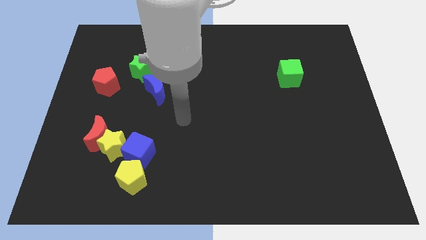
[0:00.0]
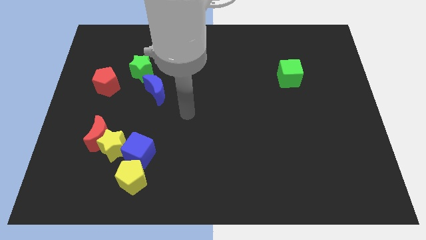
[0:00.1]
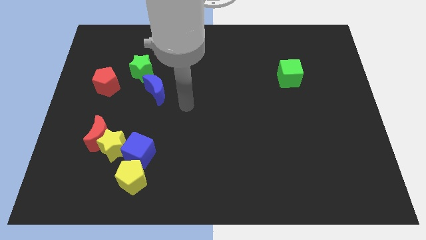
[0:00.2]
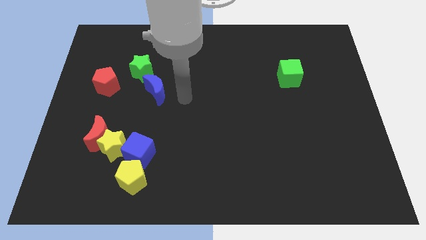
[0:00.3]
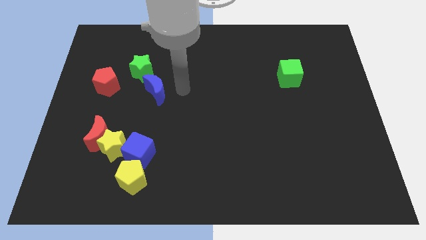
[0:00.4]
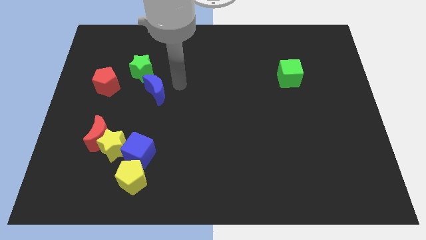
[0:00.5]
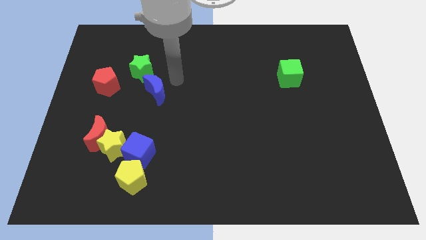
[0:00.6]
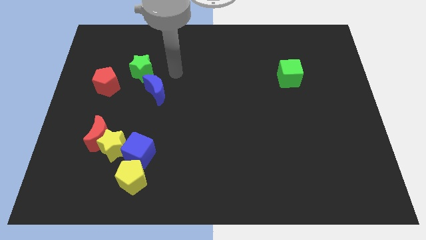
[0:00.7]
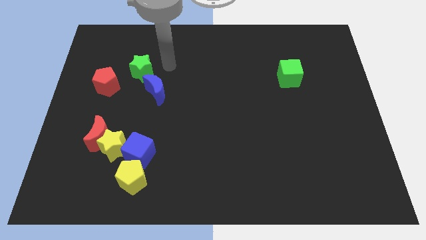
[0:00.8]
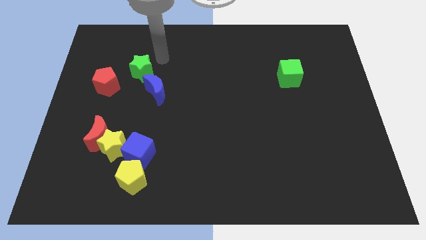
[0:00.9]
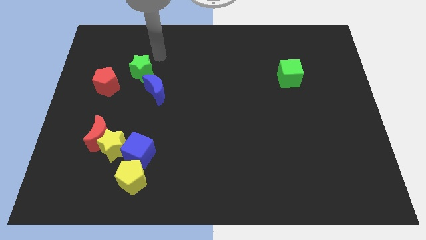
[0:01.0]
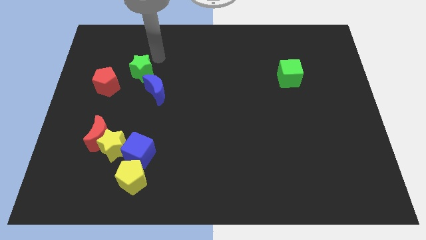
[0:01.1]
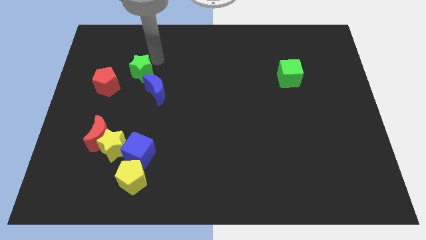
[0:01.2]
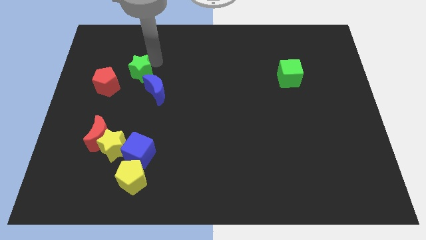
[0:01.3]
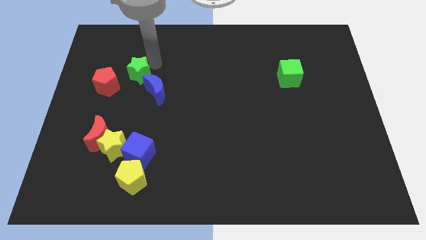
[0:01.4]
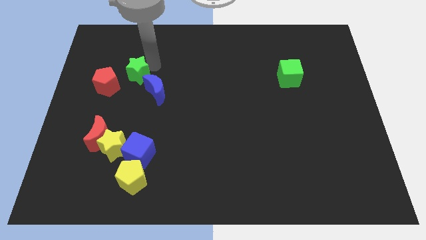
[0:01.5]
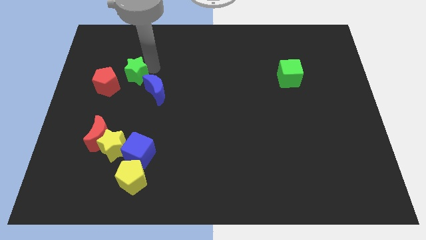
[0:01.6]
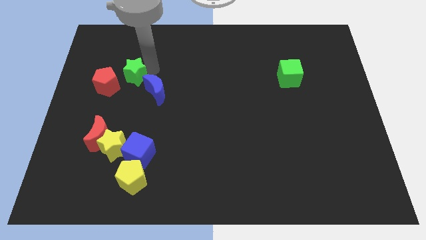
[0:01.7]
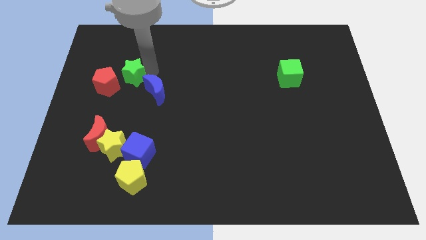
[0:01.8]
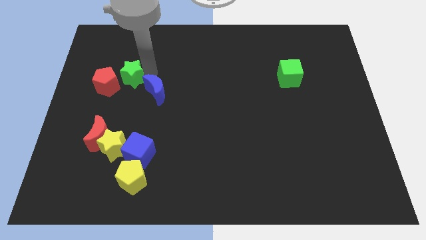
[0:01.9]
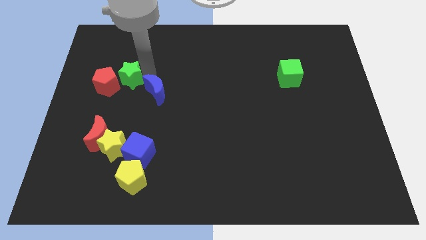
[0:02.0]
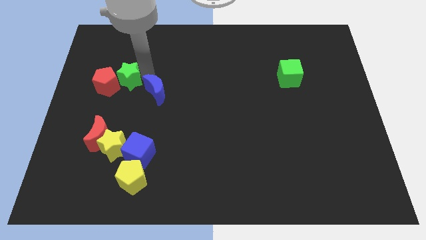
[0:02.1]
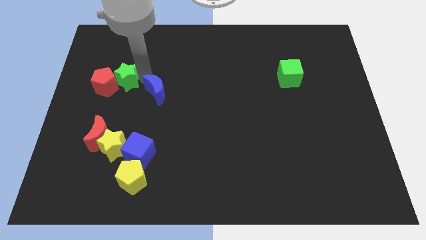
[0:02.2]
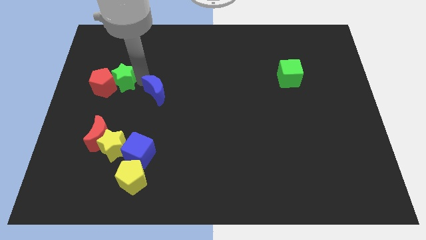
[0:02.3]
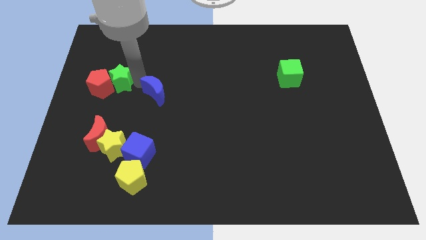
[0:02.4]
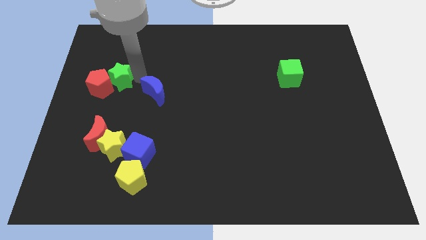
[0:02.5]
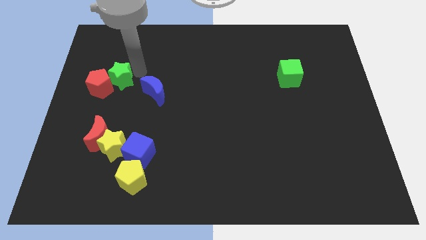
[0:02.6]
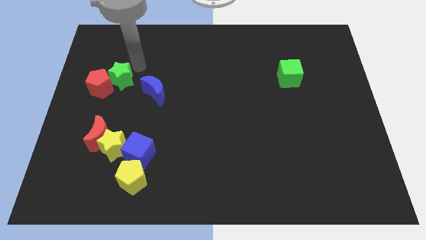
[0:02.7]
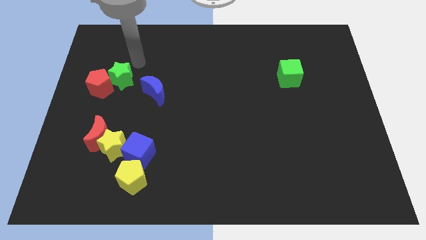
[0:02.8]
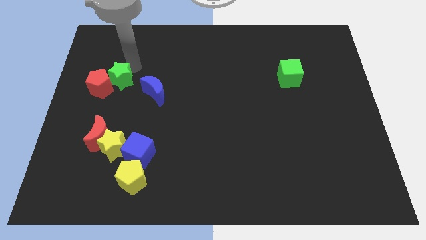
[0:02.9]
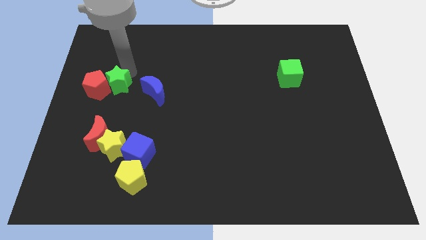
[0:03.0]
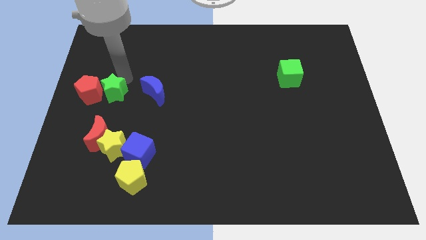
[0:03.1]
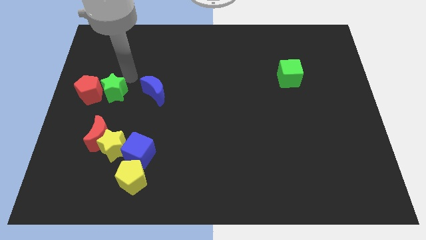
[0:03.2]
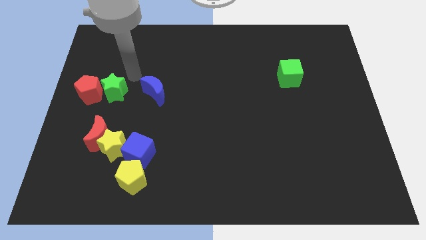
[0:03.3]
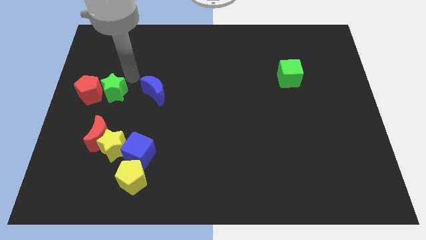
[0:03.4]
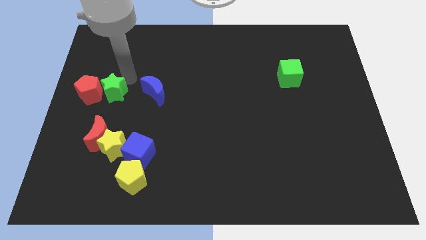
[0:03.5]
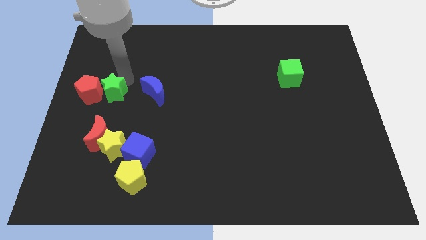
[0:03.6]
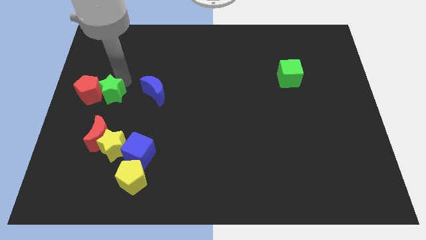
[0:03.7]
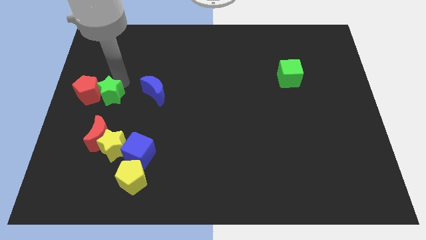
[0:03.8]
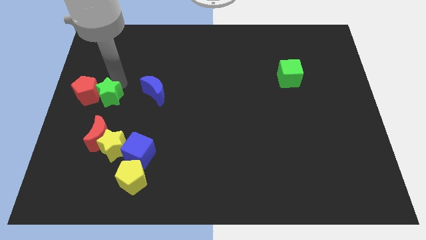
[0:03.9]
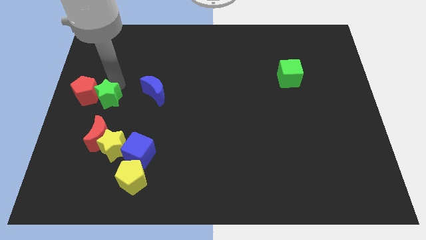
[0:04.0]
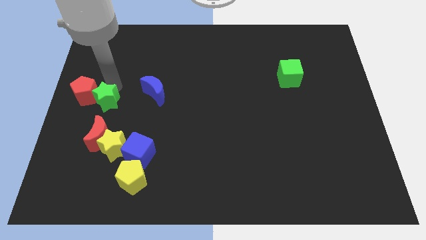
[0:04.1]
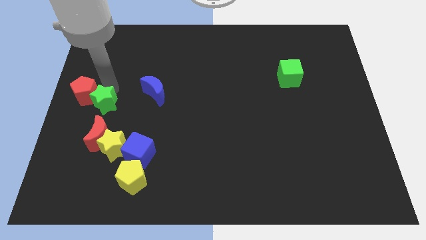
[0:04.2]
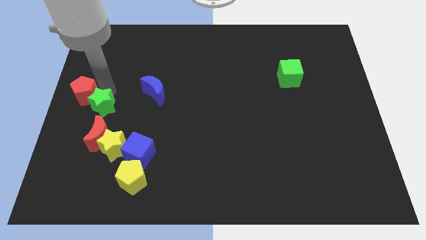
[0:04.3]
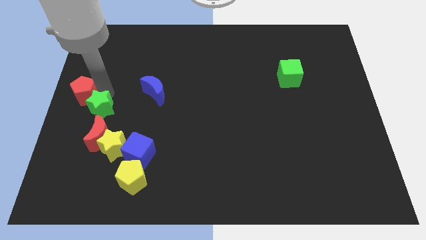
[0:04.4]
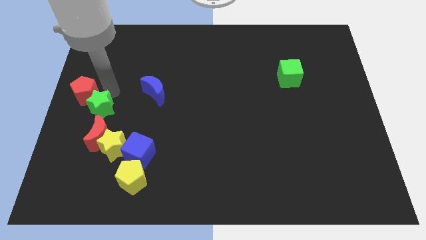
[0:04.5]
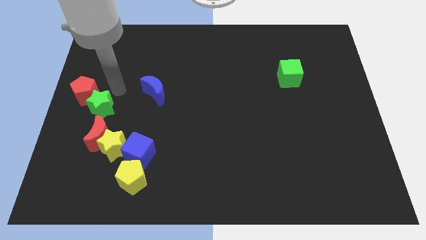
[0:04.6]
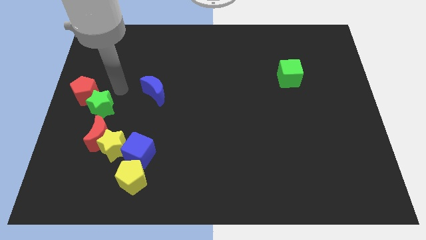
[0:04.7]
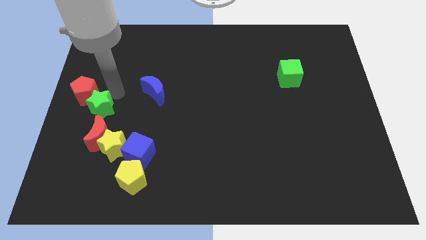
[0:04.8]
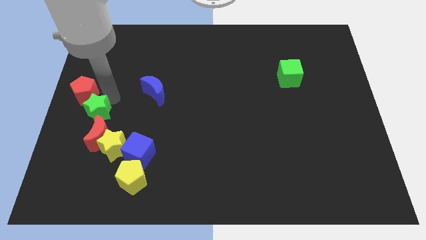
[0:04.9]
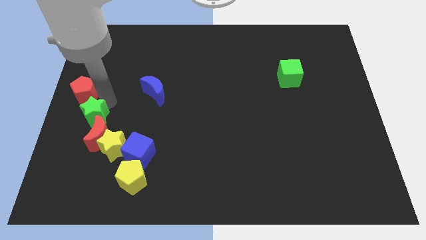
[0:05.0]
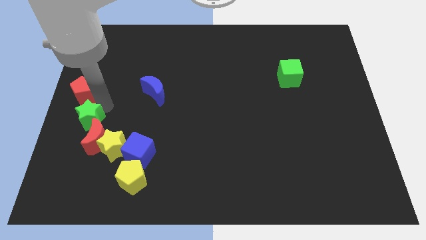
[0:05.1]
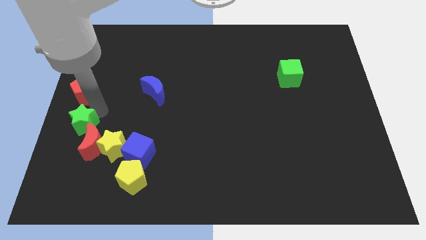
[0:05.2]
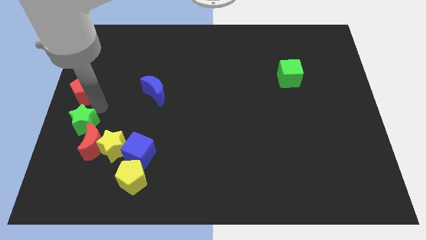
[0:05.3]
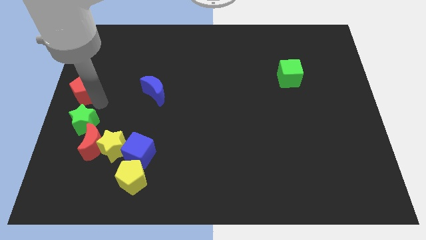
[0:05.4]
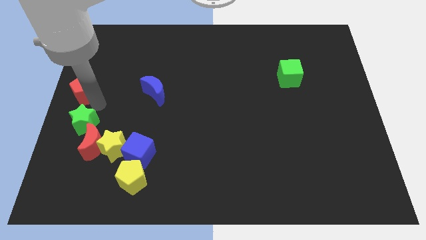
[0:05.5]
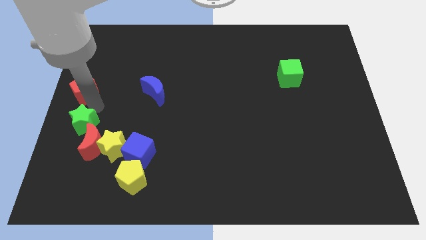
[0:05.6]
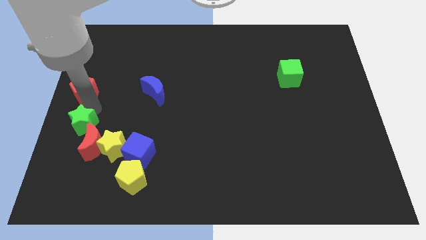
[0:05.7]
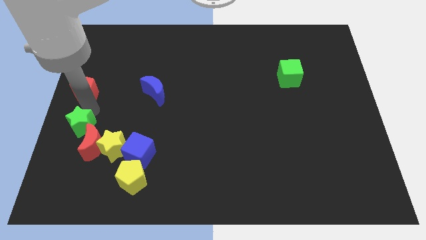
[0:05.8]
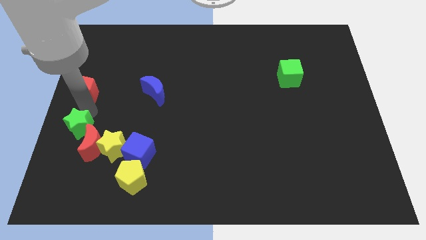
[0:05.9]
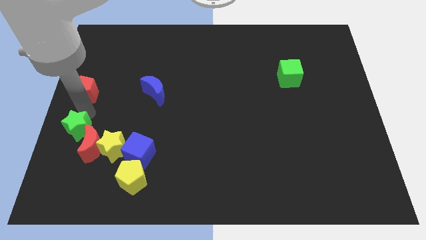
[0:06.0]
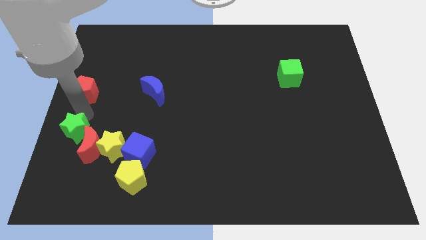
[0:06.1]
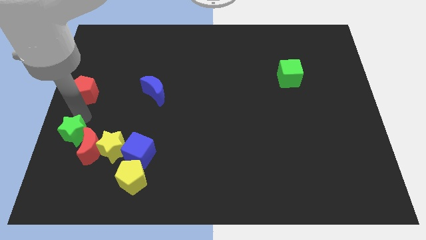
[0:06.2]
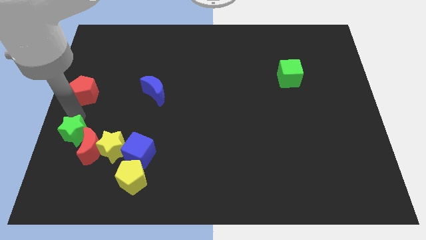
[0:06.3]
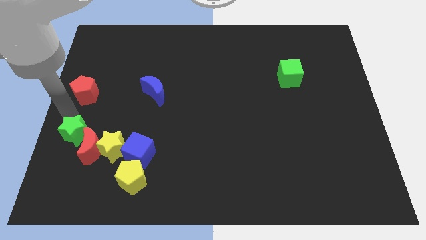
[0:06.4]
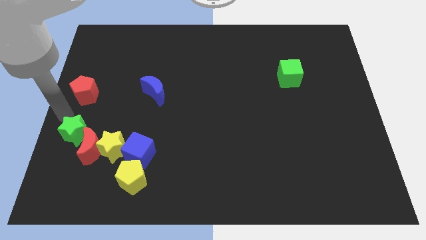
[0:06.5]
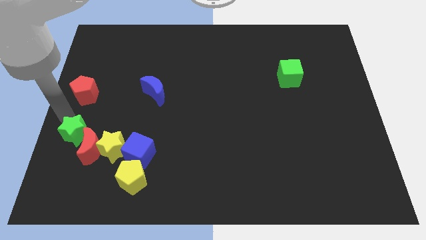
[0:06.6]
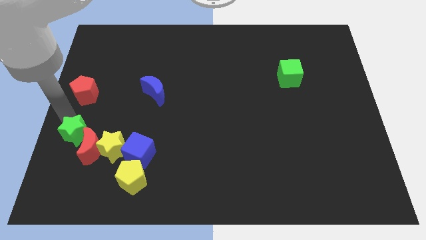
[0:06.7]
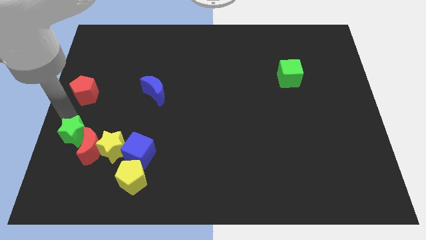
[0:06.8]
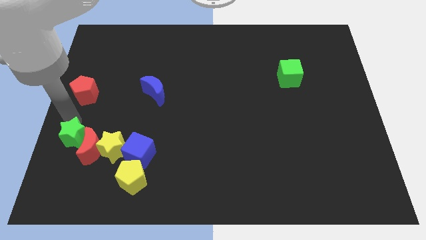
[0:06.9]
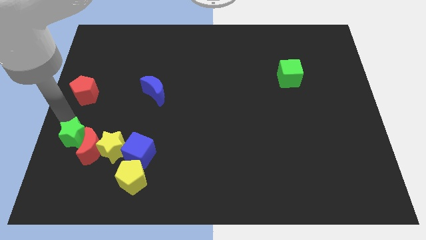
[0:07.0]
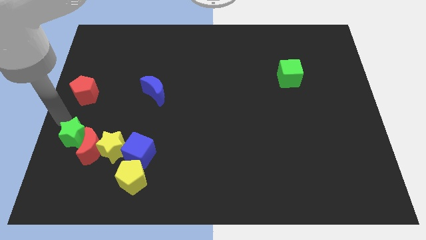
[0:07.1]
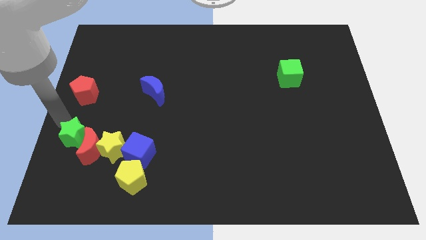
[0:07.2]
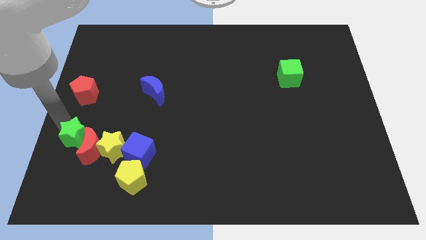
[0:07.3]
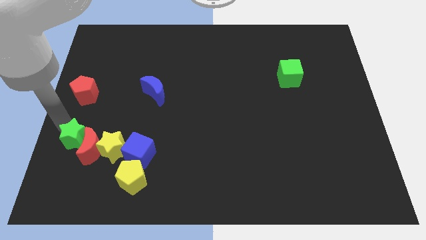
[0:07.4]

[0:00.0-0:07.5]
put the green star just left of the blue cube
